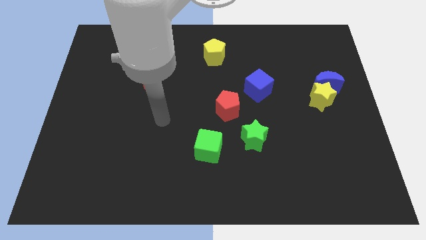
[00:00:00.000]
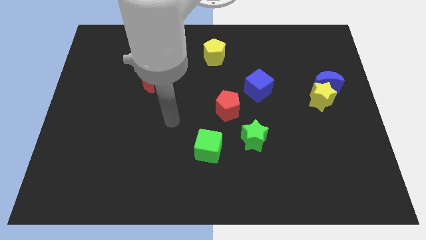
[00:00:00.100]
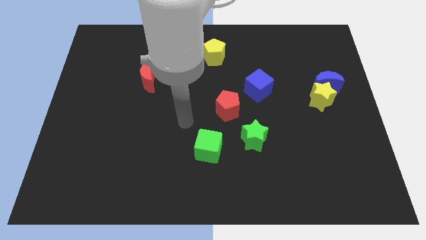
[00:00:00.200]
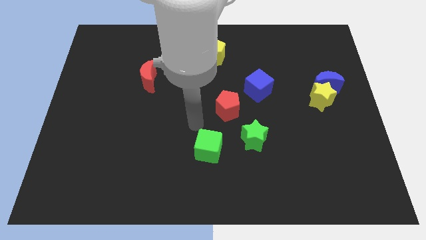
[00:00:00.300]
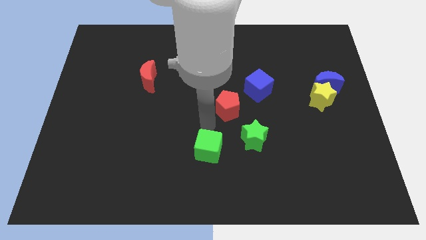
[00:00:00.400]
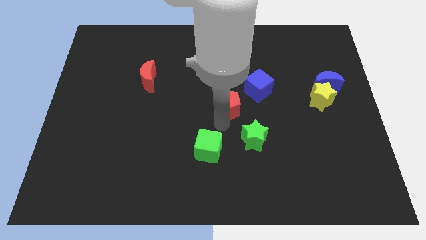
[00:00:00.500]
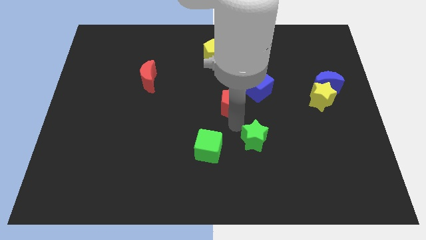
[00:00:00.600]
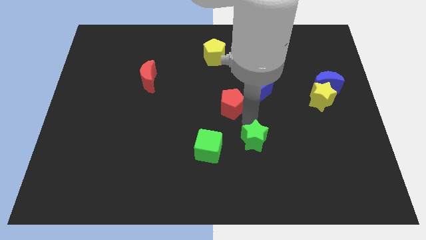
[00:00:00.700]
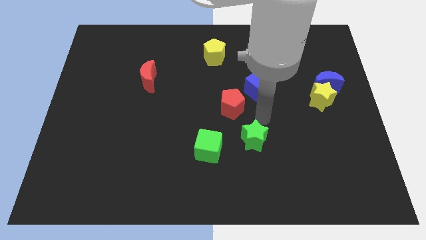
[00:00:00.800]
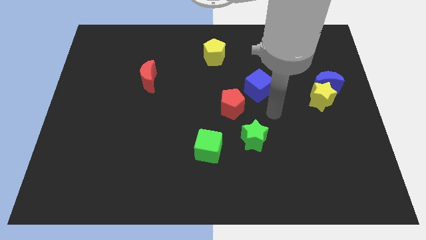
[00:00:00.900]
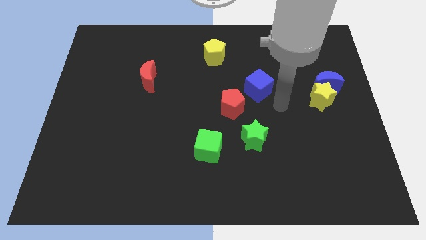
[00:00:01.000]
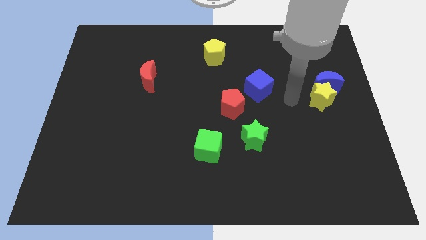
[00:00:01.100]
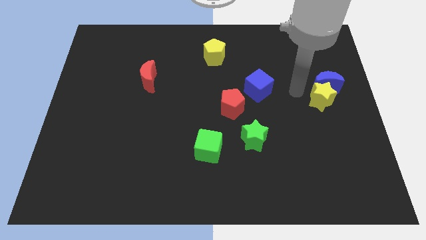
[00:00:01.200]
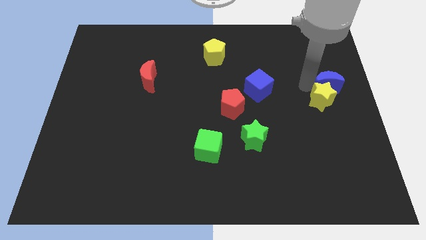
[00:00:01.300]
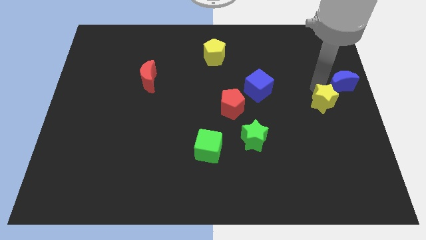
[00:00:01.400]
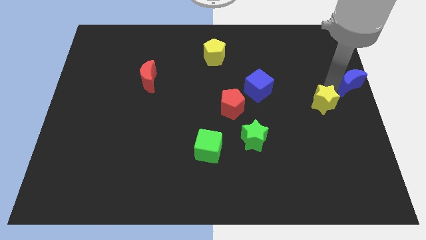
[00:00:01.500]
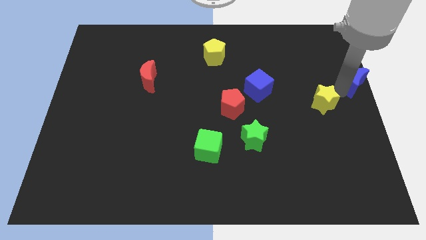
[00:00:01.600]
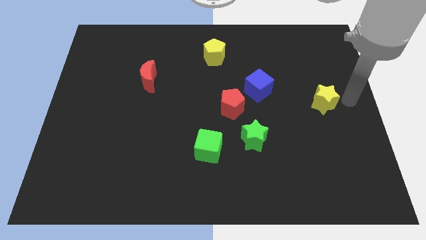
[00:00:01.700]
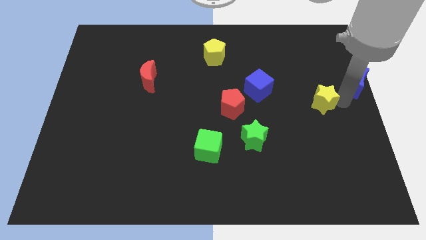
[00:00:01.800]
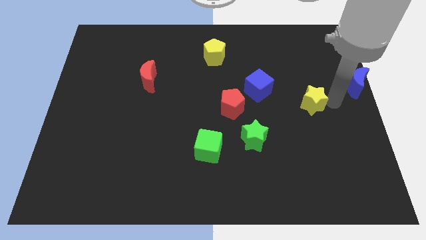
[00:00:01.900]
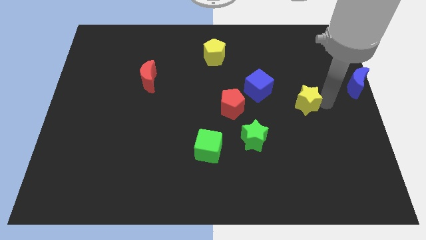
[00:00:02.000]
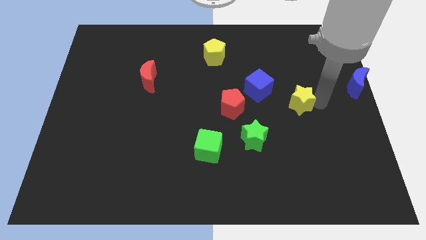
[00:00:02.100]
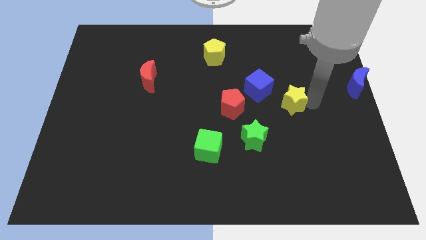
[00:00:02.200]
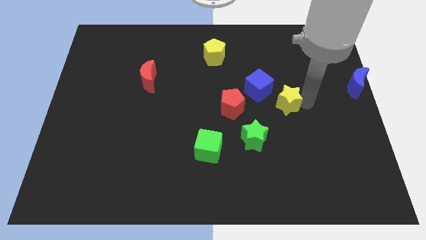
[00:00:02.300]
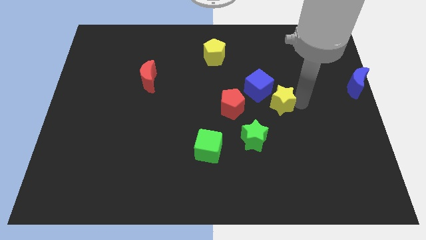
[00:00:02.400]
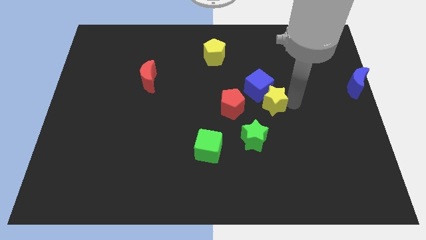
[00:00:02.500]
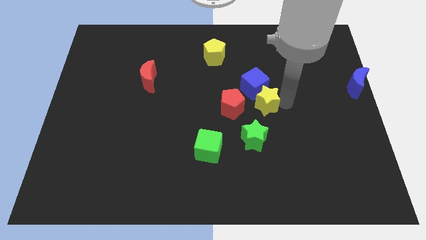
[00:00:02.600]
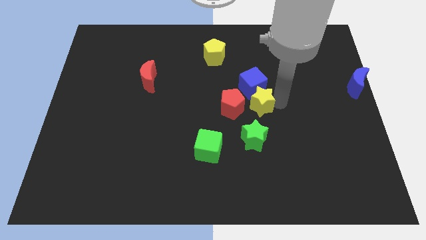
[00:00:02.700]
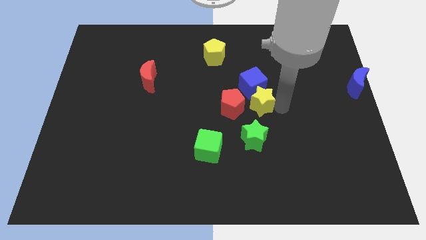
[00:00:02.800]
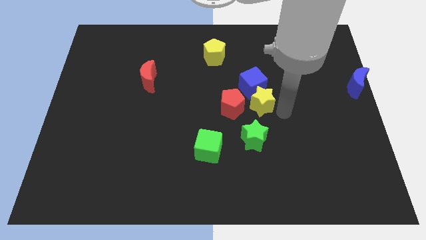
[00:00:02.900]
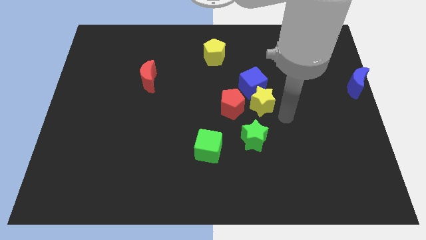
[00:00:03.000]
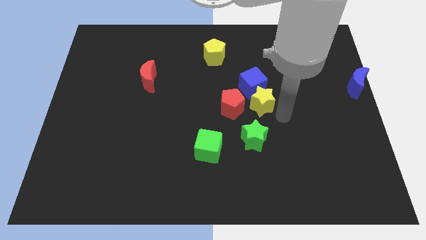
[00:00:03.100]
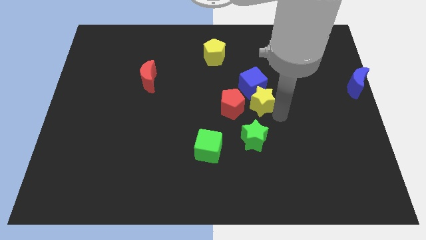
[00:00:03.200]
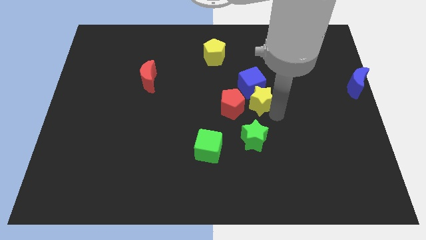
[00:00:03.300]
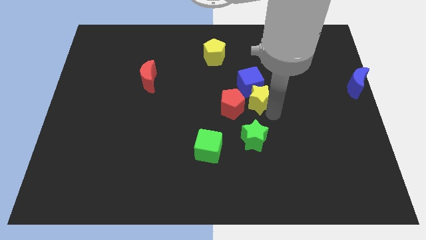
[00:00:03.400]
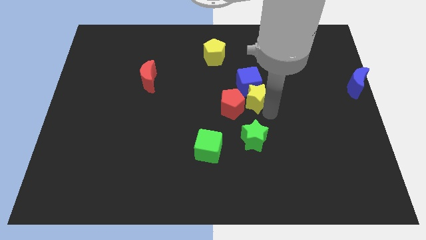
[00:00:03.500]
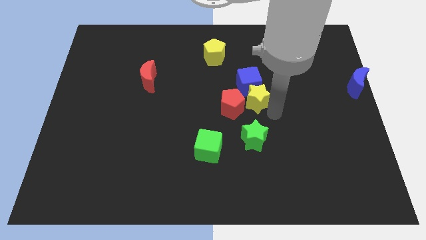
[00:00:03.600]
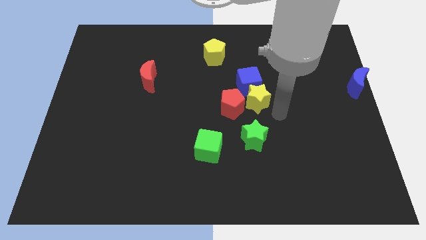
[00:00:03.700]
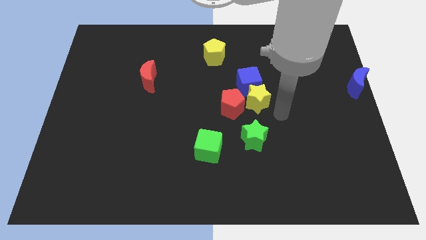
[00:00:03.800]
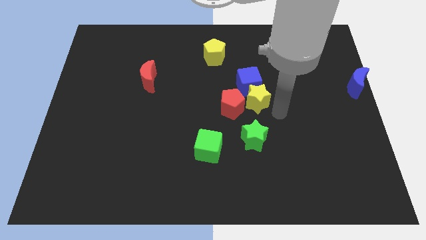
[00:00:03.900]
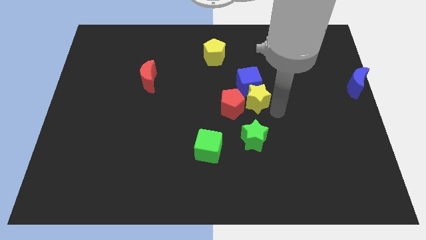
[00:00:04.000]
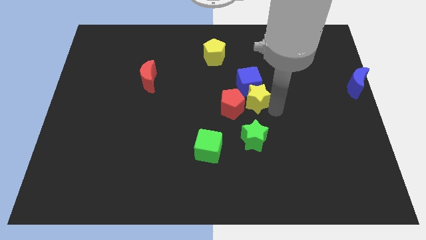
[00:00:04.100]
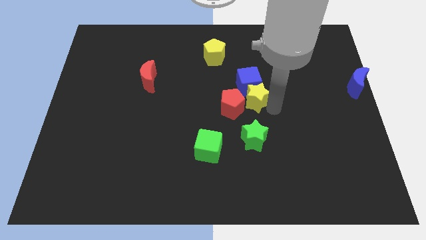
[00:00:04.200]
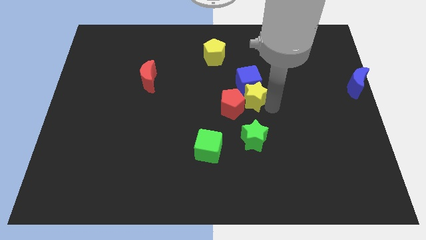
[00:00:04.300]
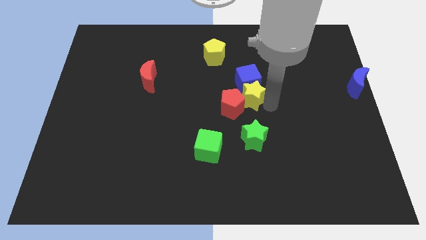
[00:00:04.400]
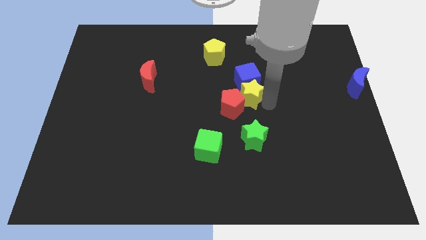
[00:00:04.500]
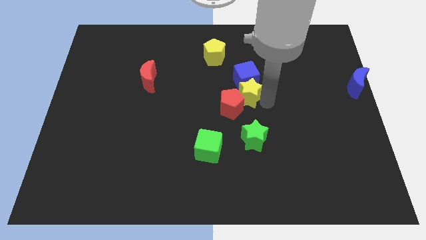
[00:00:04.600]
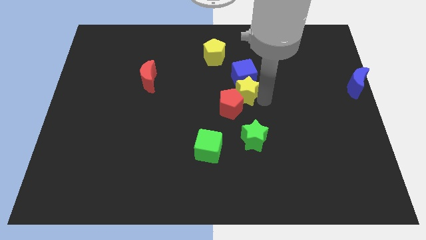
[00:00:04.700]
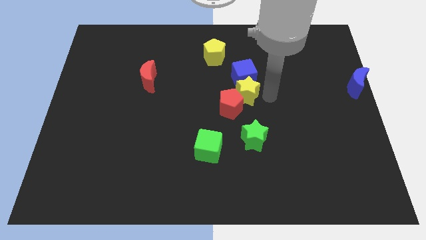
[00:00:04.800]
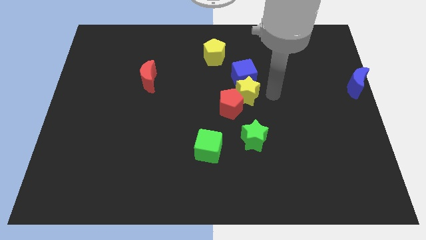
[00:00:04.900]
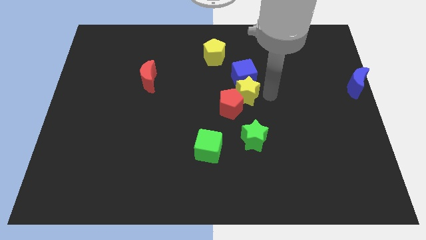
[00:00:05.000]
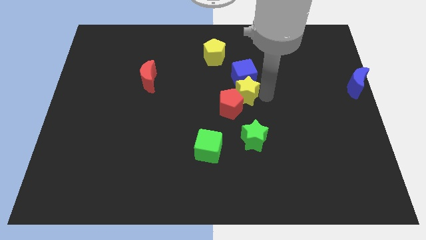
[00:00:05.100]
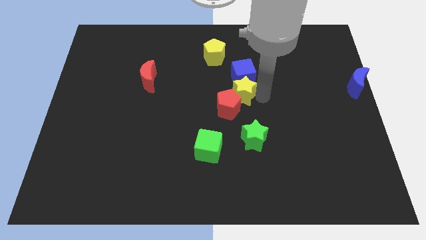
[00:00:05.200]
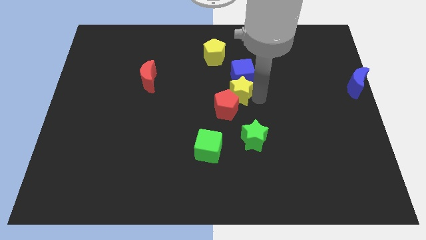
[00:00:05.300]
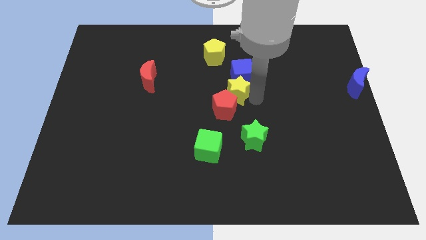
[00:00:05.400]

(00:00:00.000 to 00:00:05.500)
push the yellow star to the left

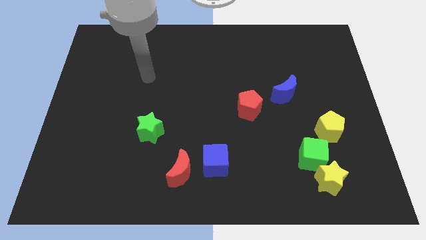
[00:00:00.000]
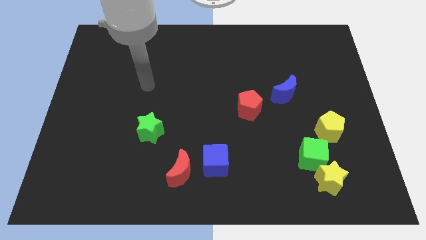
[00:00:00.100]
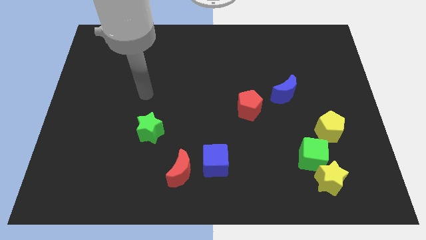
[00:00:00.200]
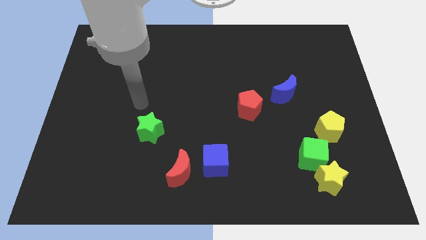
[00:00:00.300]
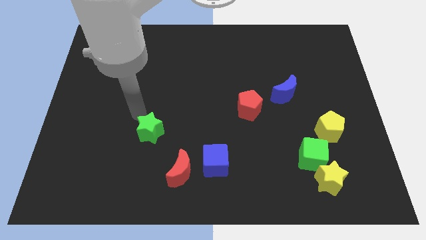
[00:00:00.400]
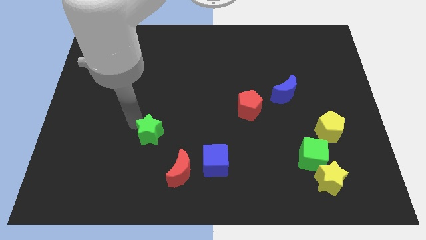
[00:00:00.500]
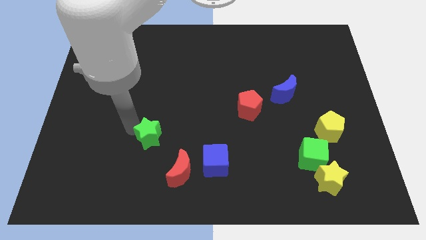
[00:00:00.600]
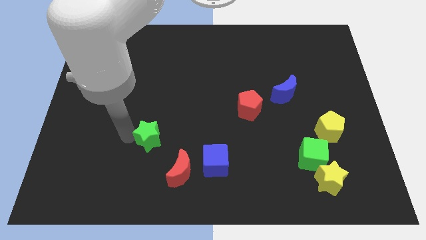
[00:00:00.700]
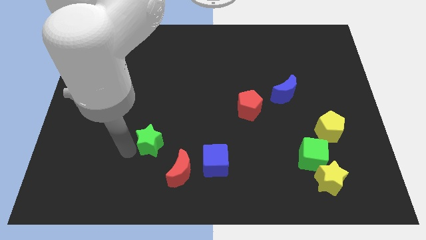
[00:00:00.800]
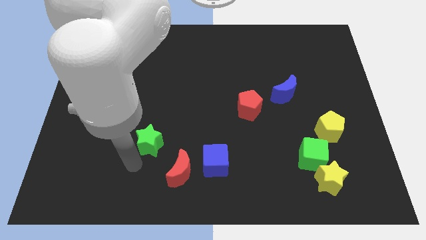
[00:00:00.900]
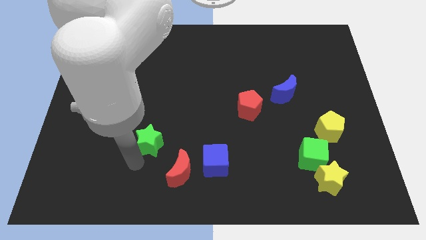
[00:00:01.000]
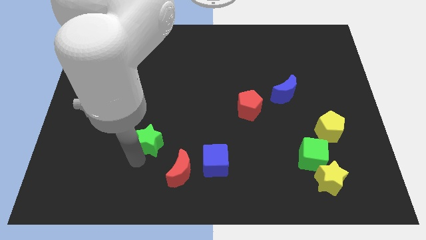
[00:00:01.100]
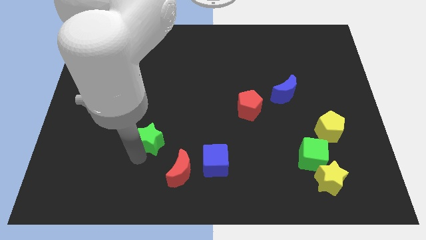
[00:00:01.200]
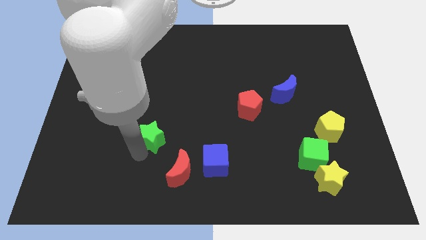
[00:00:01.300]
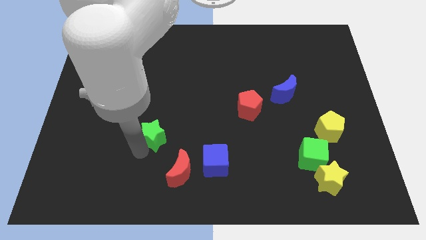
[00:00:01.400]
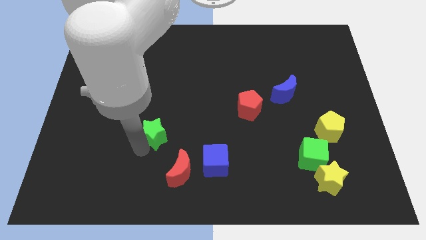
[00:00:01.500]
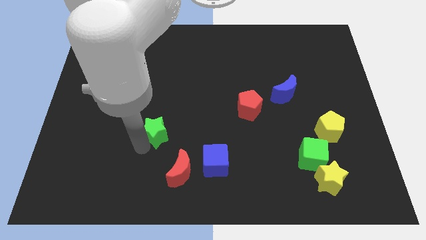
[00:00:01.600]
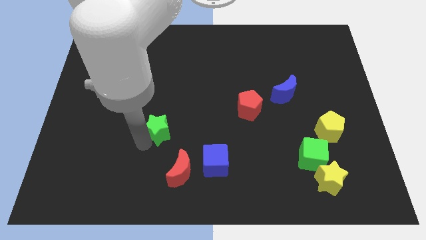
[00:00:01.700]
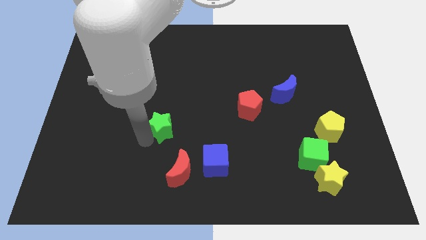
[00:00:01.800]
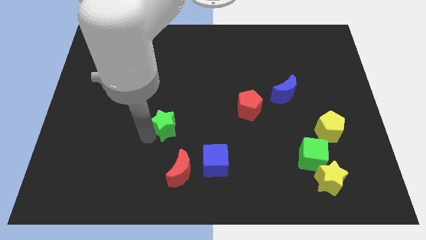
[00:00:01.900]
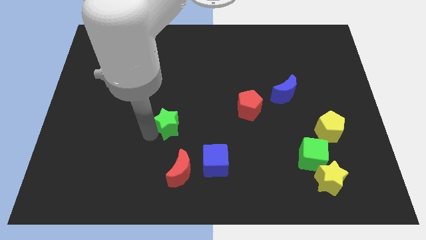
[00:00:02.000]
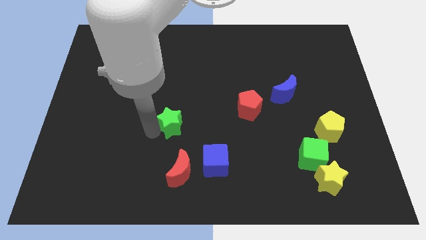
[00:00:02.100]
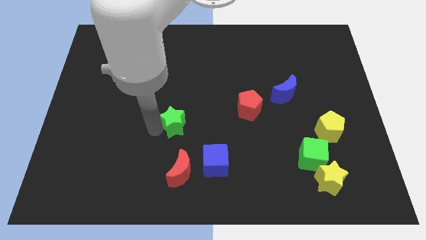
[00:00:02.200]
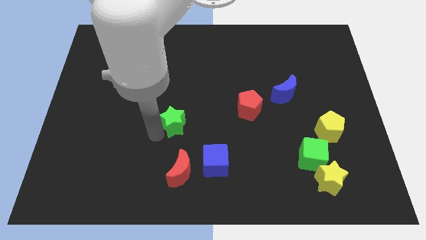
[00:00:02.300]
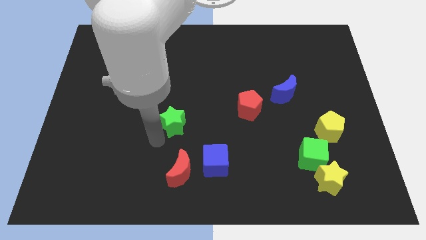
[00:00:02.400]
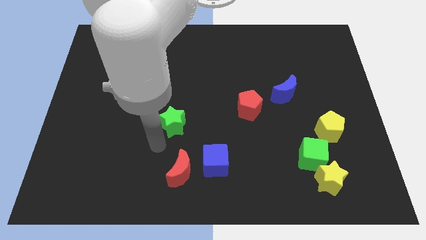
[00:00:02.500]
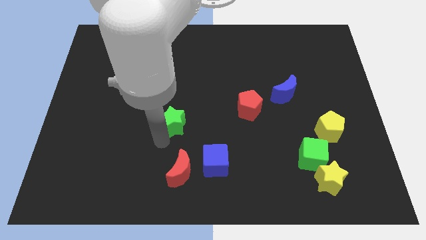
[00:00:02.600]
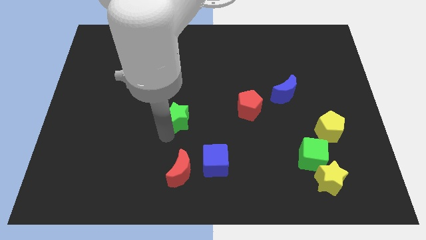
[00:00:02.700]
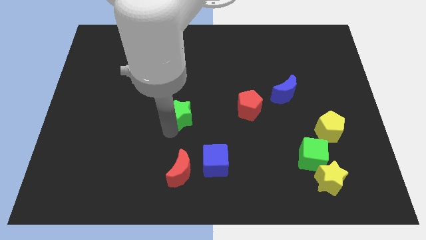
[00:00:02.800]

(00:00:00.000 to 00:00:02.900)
slightly move the green star upwards and then to the right

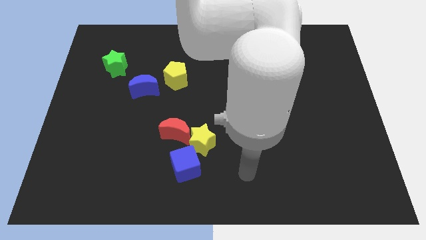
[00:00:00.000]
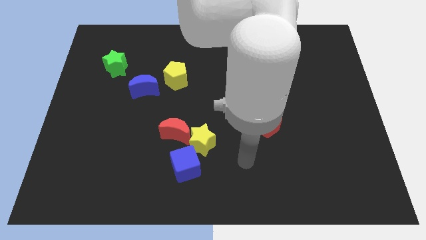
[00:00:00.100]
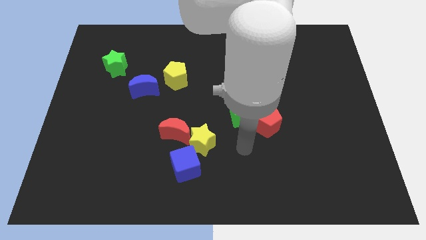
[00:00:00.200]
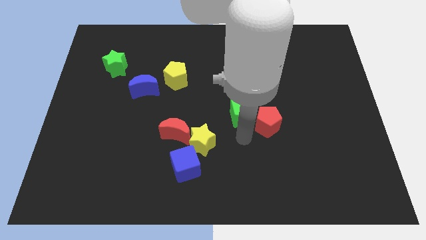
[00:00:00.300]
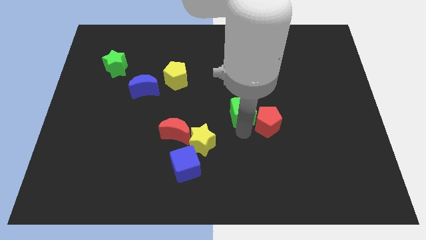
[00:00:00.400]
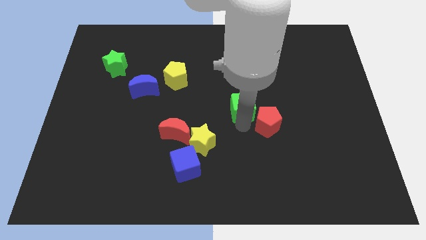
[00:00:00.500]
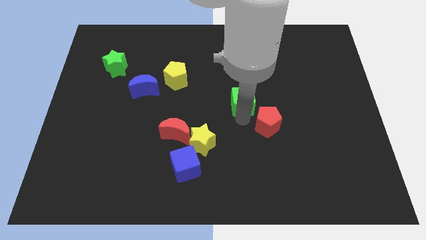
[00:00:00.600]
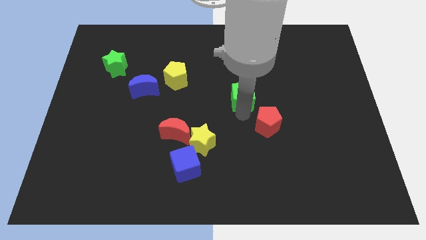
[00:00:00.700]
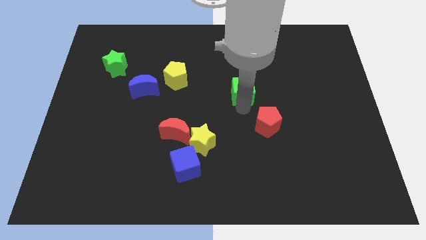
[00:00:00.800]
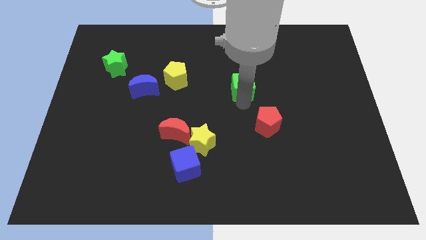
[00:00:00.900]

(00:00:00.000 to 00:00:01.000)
slide the green cube slightly up
